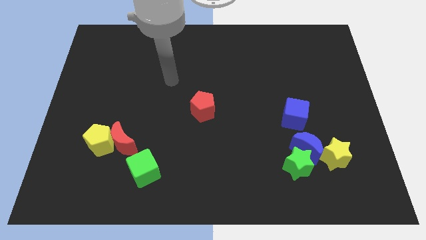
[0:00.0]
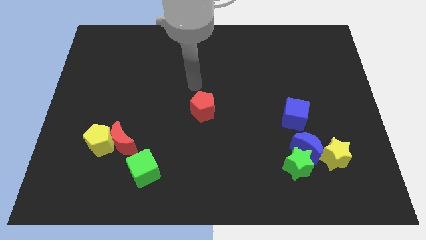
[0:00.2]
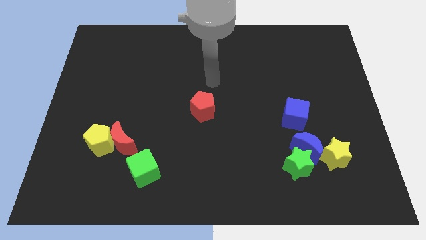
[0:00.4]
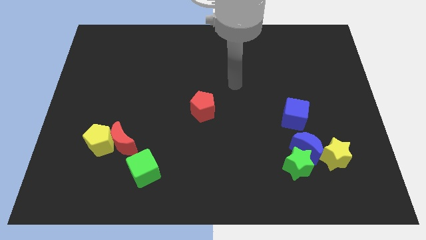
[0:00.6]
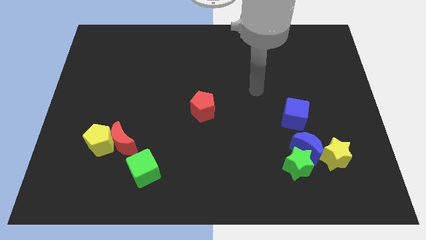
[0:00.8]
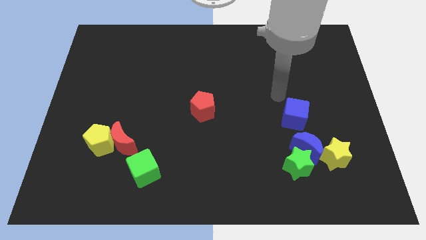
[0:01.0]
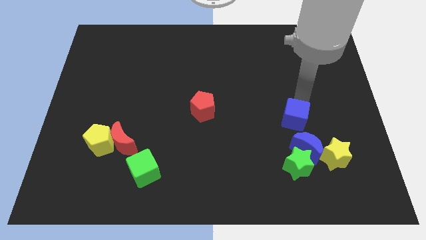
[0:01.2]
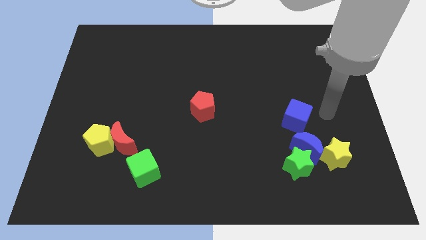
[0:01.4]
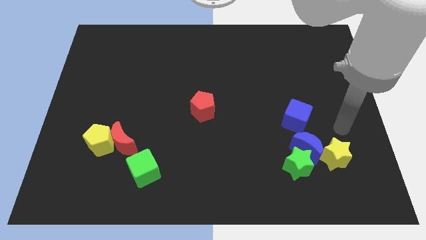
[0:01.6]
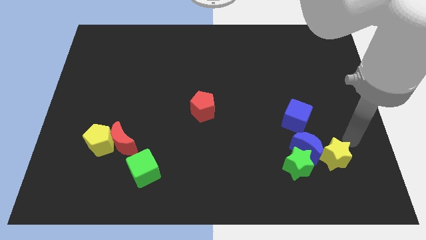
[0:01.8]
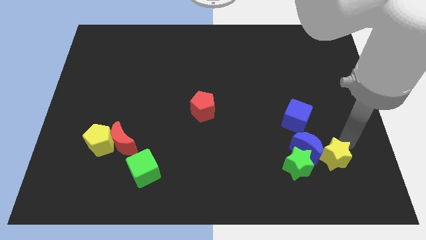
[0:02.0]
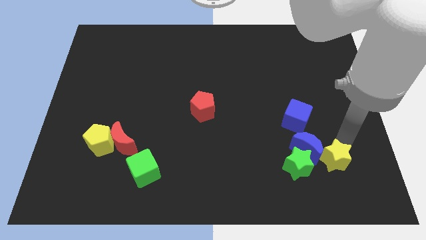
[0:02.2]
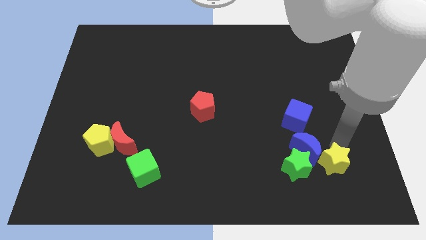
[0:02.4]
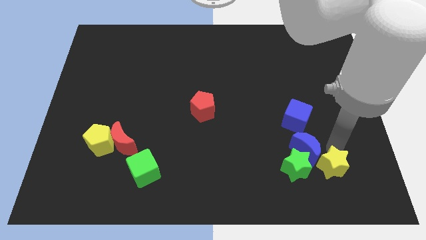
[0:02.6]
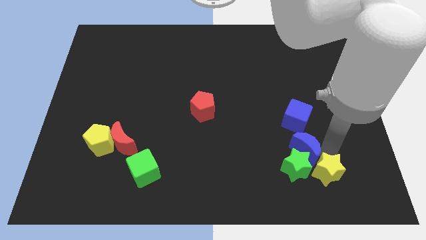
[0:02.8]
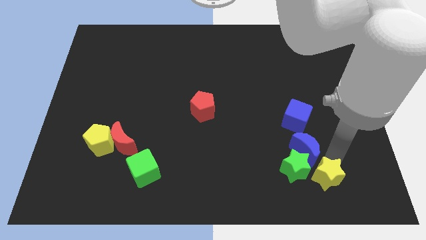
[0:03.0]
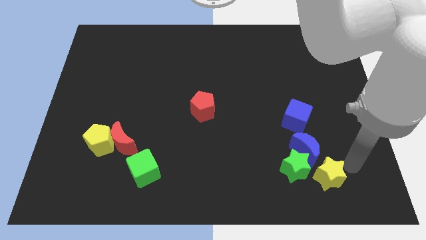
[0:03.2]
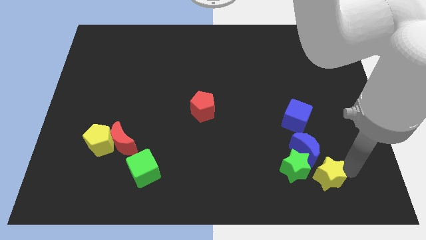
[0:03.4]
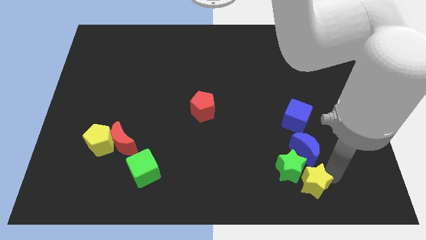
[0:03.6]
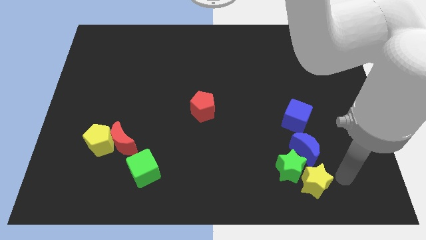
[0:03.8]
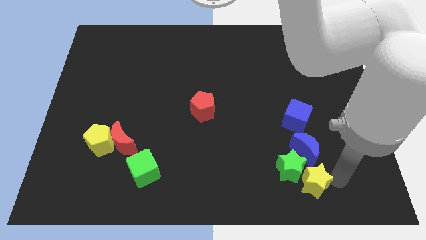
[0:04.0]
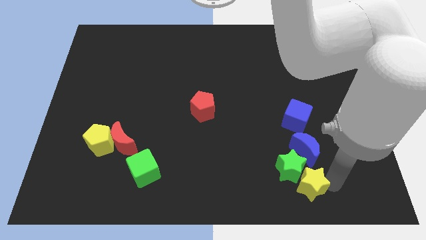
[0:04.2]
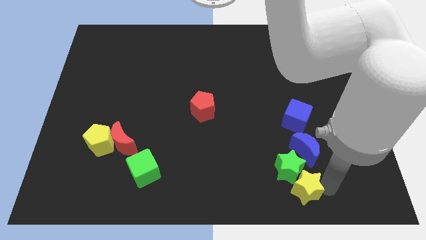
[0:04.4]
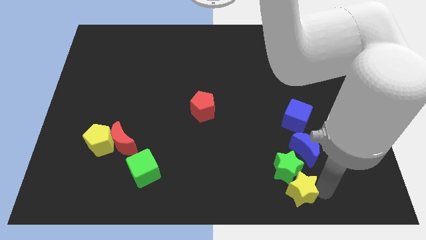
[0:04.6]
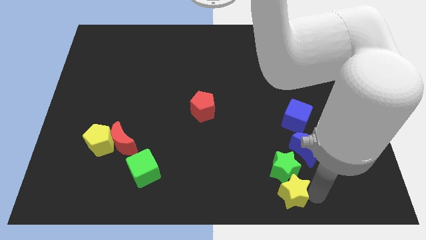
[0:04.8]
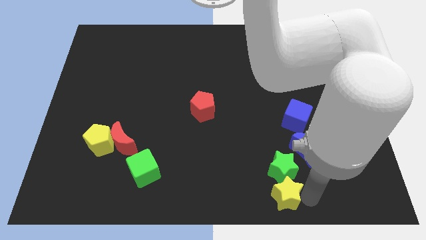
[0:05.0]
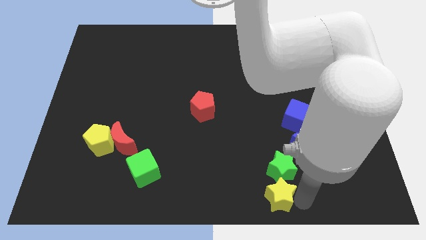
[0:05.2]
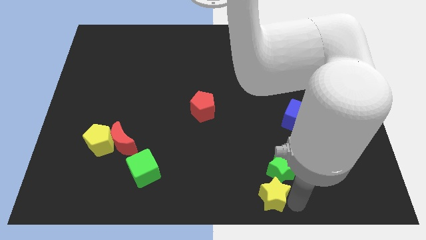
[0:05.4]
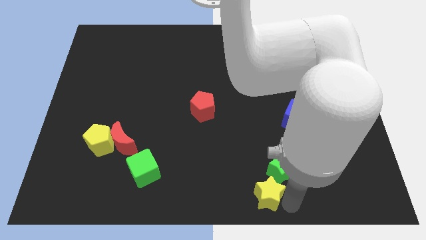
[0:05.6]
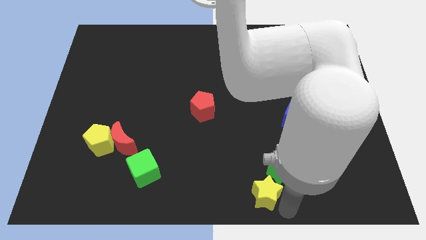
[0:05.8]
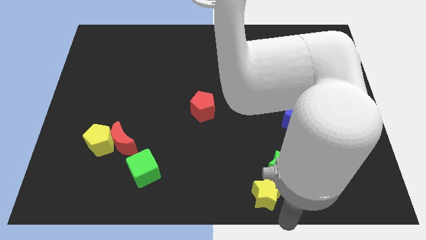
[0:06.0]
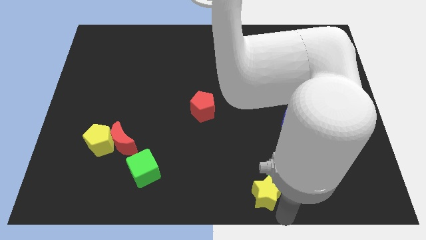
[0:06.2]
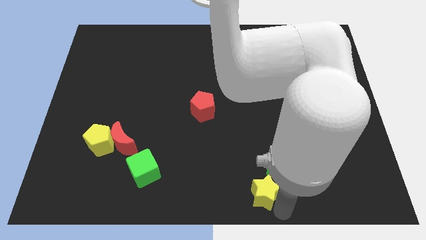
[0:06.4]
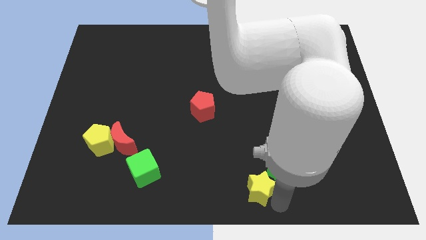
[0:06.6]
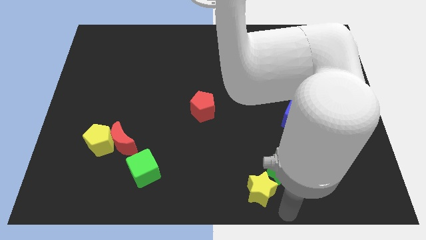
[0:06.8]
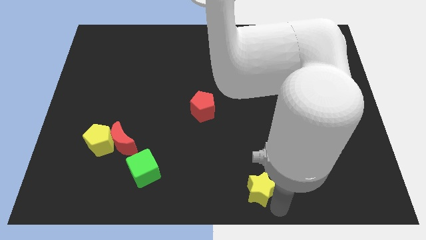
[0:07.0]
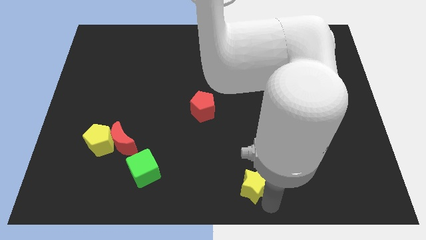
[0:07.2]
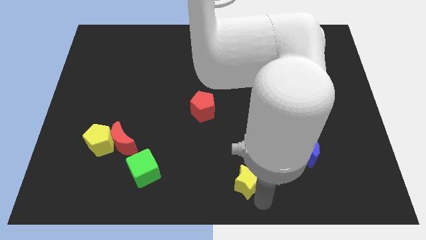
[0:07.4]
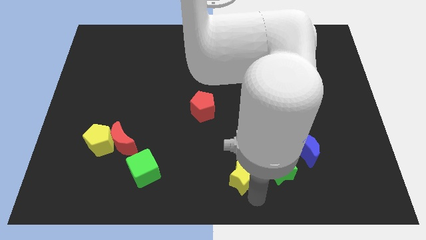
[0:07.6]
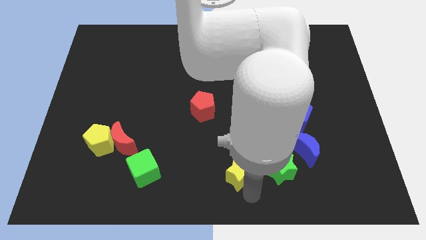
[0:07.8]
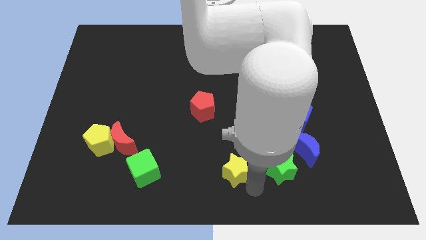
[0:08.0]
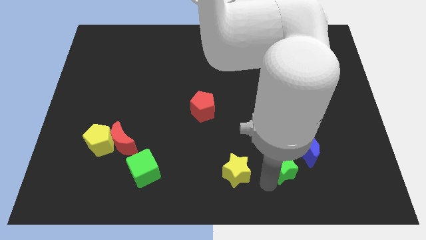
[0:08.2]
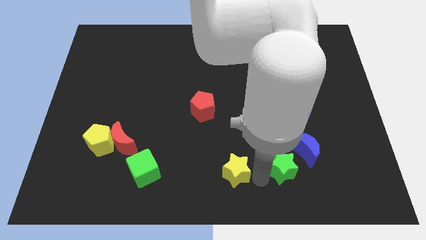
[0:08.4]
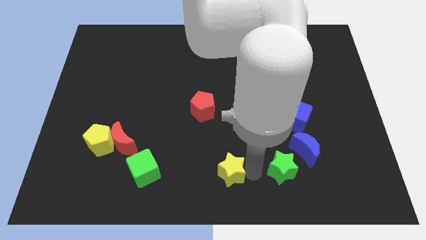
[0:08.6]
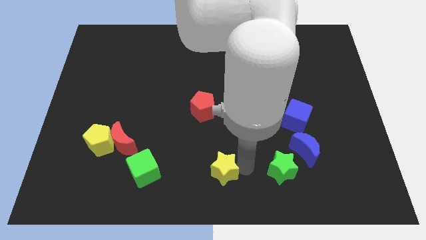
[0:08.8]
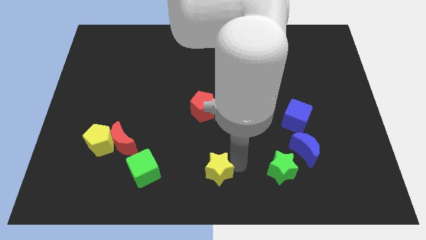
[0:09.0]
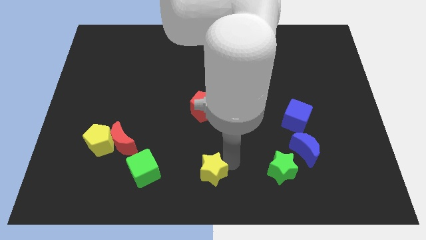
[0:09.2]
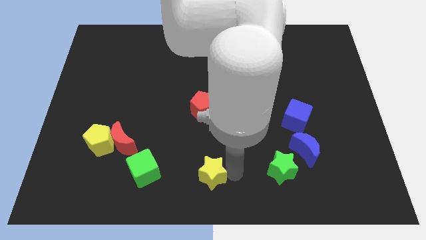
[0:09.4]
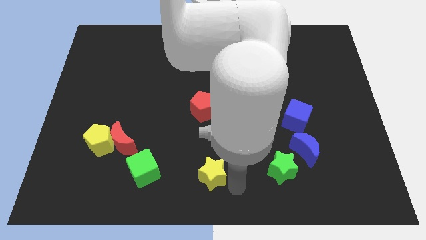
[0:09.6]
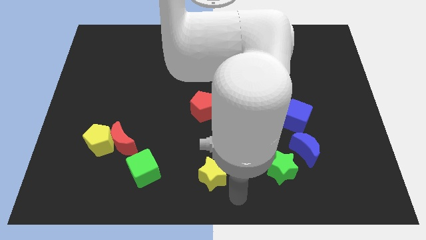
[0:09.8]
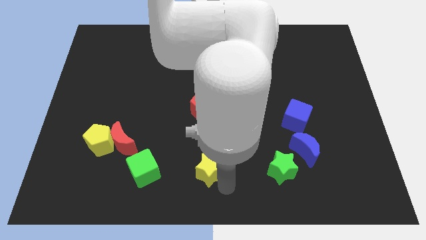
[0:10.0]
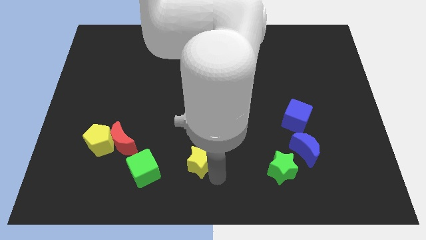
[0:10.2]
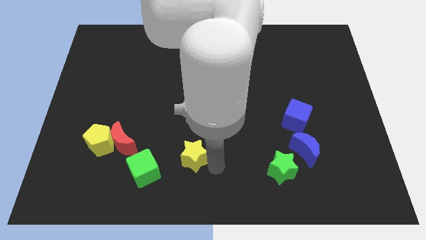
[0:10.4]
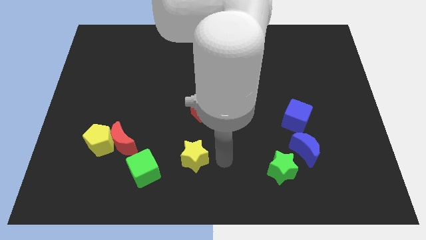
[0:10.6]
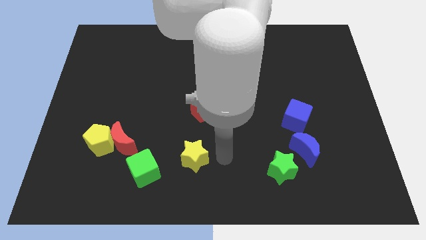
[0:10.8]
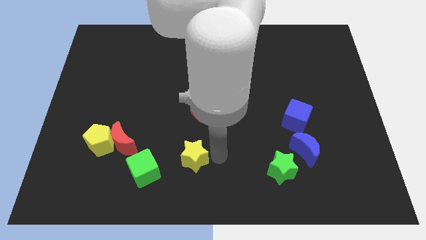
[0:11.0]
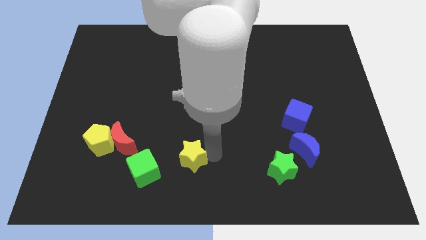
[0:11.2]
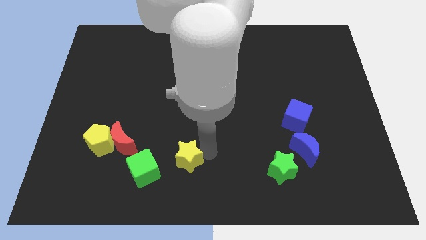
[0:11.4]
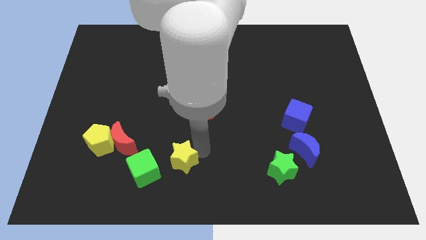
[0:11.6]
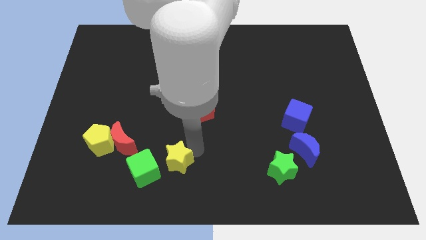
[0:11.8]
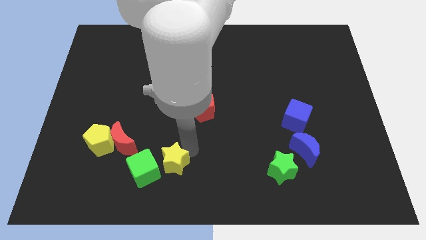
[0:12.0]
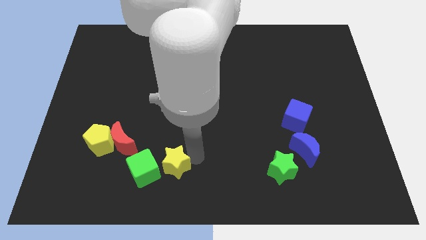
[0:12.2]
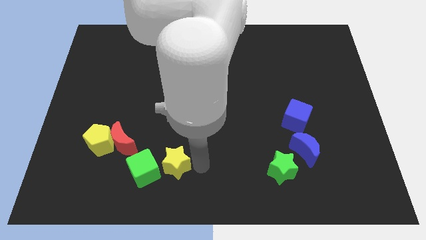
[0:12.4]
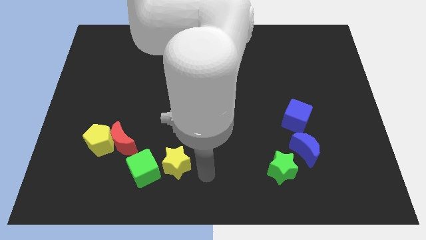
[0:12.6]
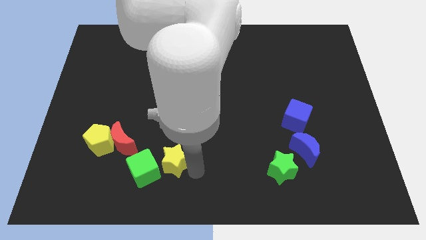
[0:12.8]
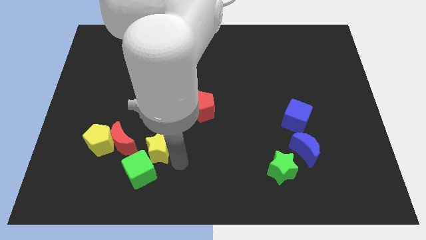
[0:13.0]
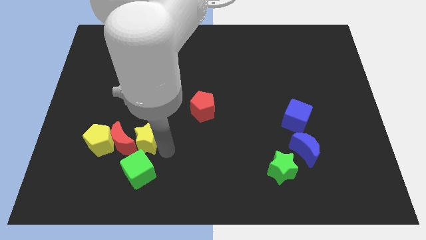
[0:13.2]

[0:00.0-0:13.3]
slide the yellow star close to the red moon
